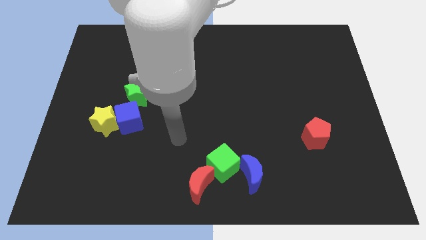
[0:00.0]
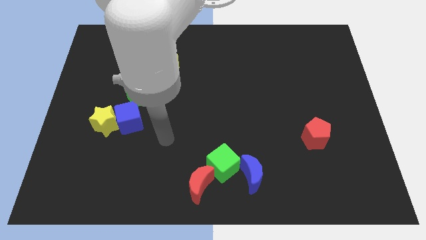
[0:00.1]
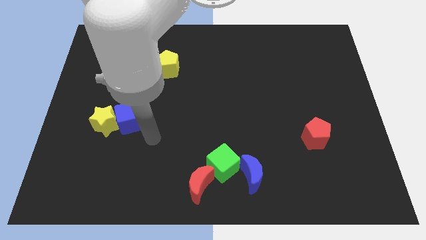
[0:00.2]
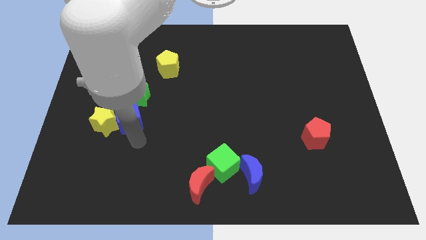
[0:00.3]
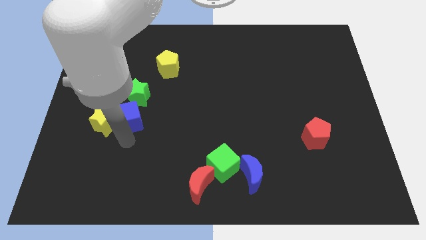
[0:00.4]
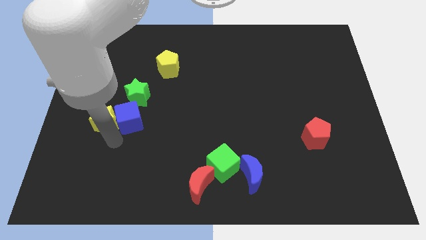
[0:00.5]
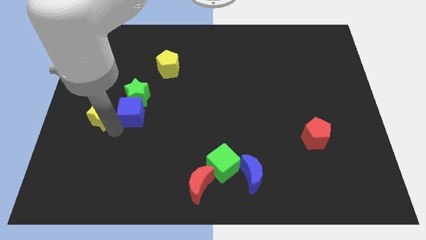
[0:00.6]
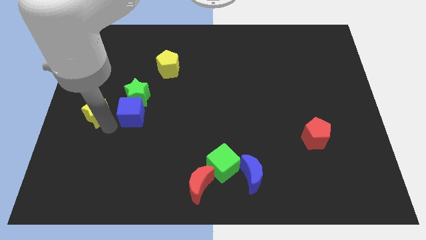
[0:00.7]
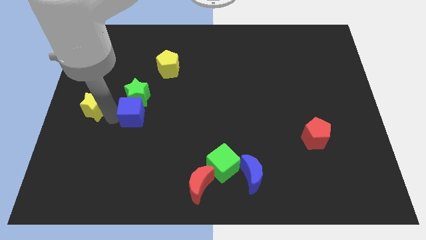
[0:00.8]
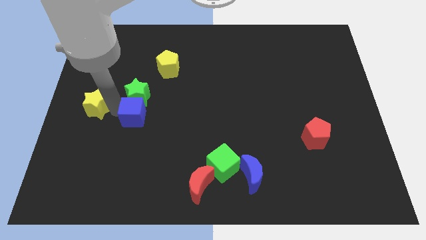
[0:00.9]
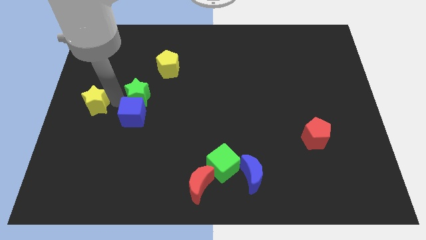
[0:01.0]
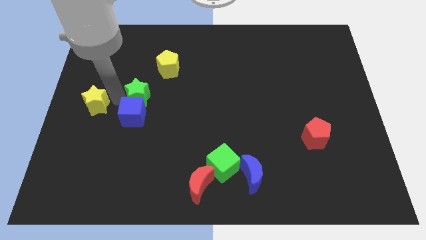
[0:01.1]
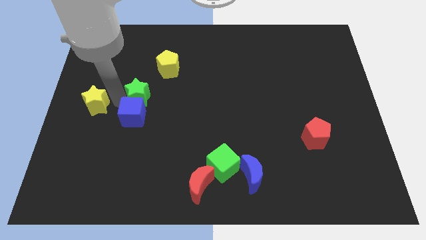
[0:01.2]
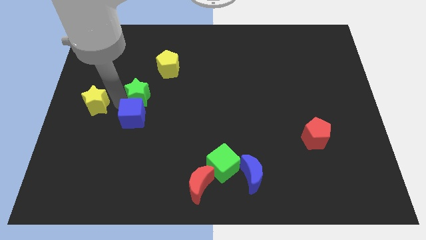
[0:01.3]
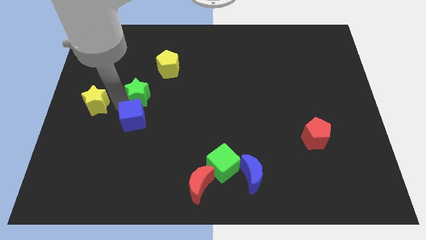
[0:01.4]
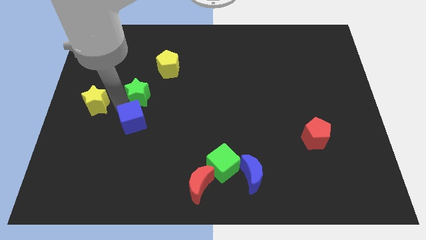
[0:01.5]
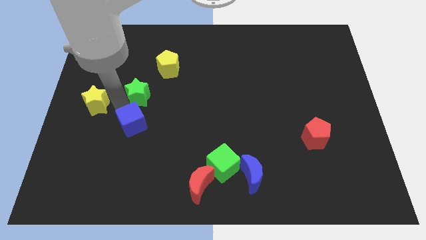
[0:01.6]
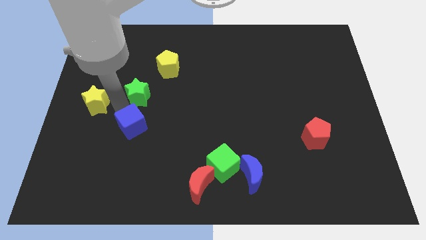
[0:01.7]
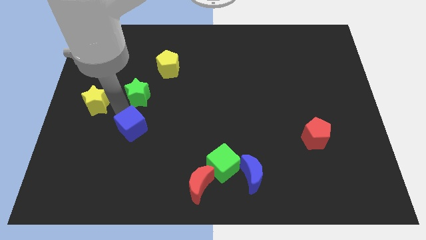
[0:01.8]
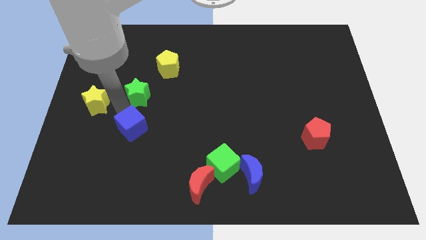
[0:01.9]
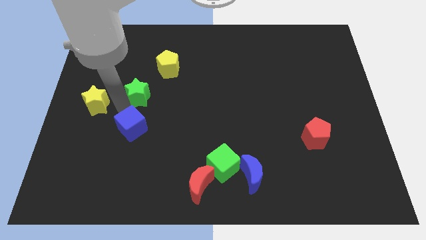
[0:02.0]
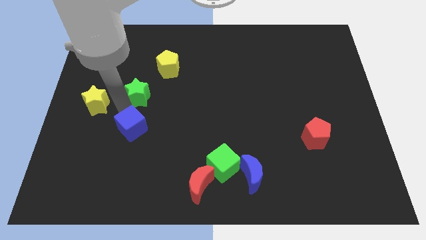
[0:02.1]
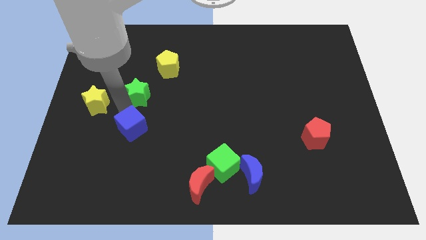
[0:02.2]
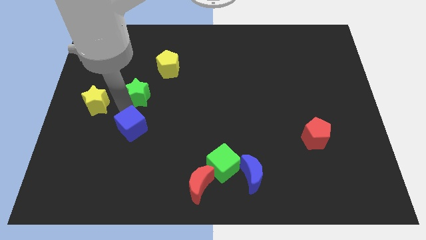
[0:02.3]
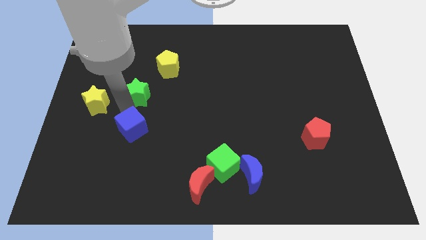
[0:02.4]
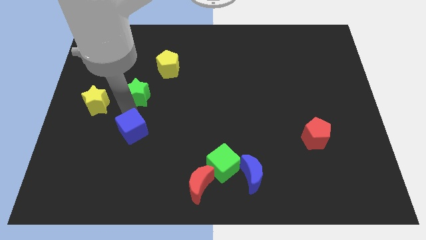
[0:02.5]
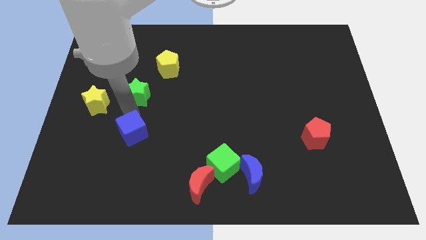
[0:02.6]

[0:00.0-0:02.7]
separate the blue cube from the yellow star and green star

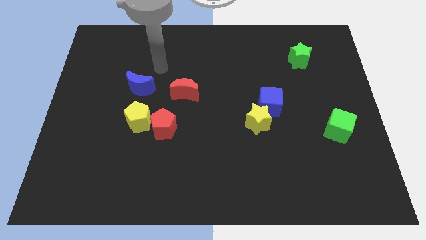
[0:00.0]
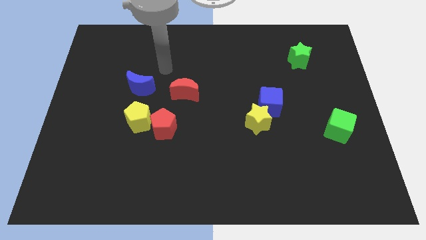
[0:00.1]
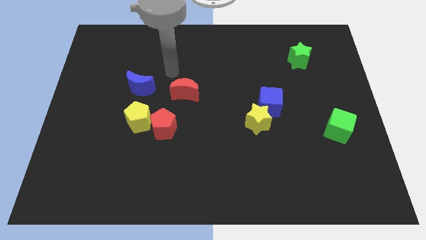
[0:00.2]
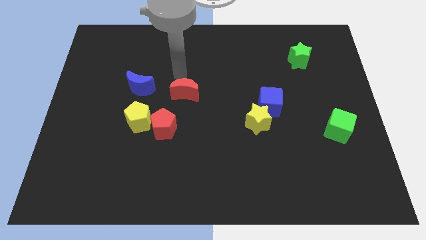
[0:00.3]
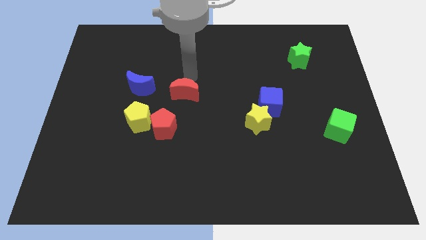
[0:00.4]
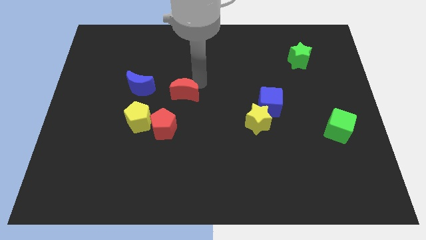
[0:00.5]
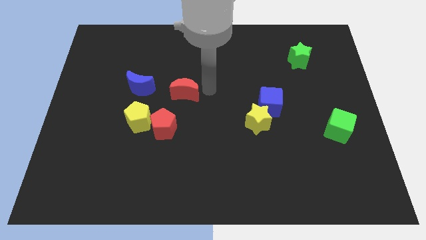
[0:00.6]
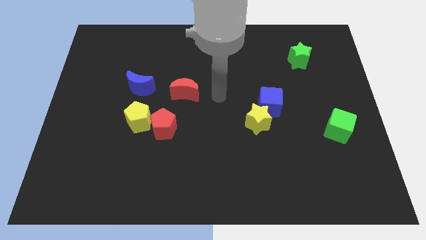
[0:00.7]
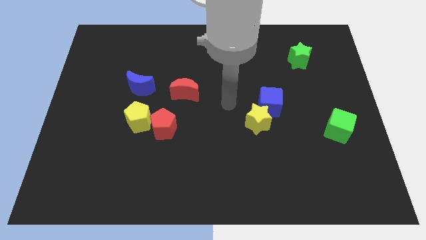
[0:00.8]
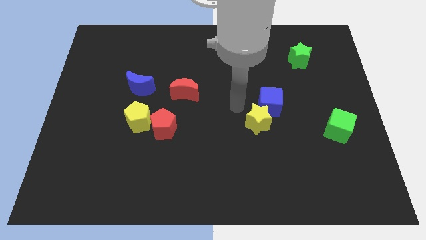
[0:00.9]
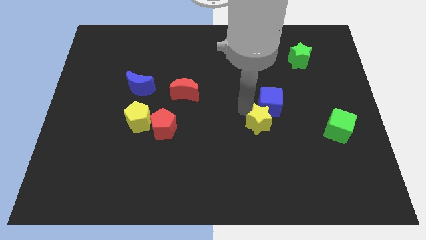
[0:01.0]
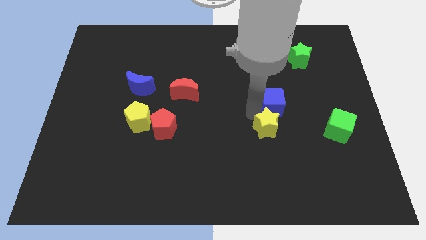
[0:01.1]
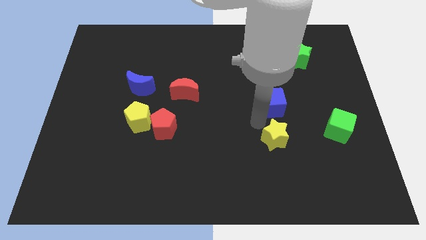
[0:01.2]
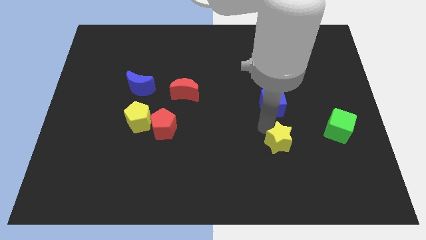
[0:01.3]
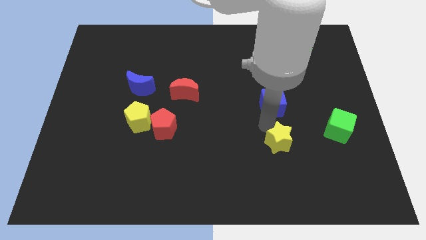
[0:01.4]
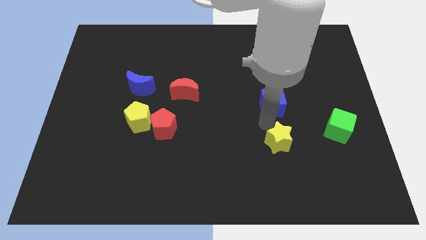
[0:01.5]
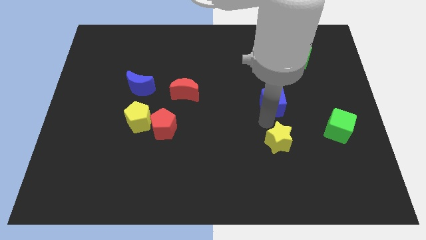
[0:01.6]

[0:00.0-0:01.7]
separate the blue cube from the yellow star

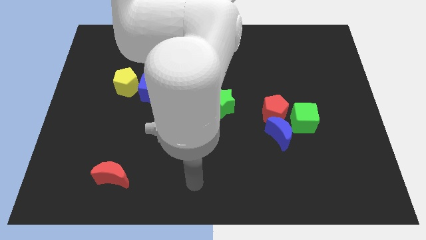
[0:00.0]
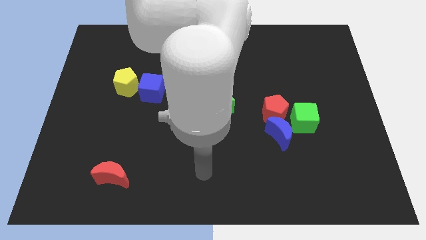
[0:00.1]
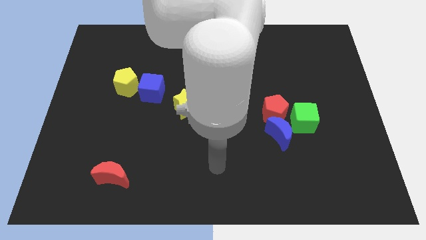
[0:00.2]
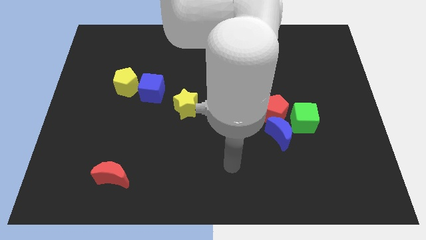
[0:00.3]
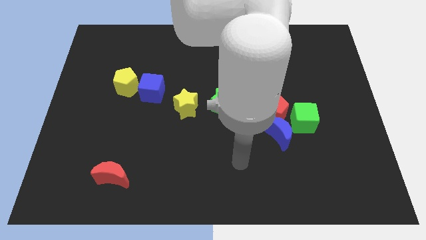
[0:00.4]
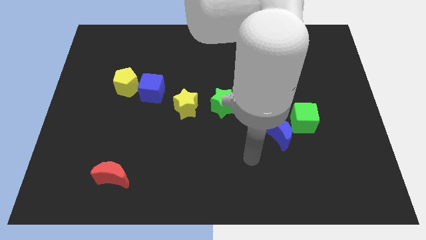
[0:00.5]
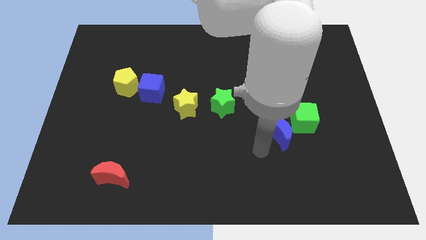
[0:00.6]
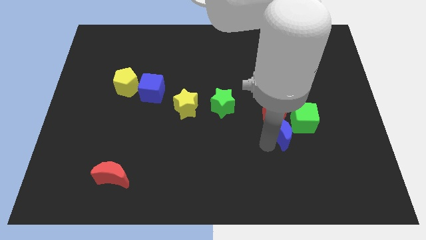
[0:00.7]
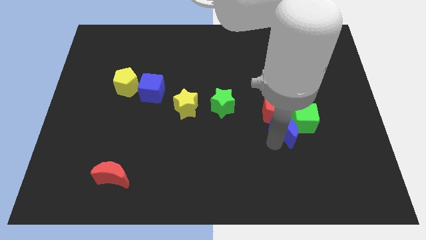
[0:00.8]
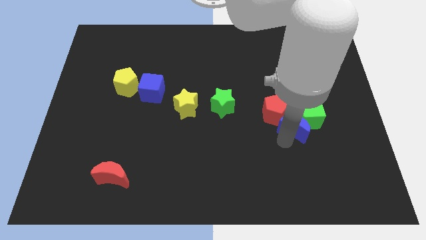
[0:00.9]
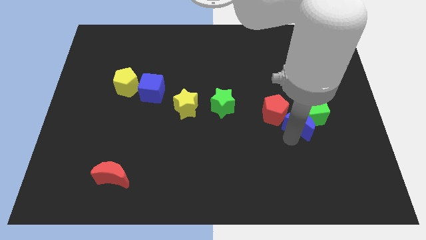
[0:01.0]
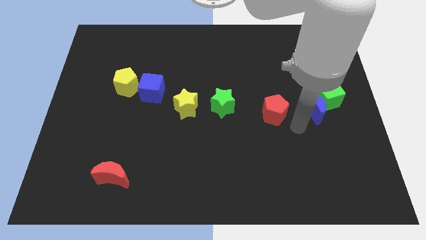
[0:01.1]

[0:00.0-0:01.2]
move the red pentagon away from the blue moon and green cube

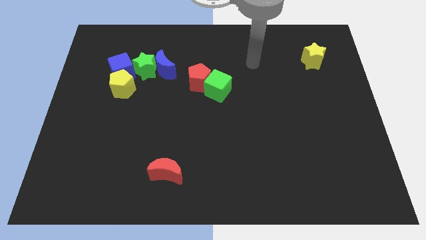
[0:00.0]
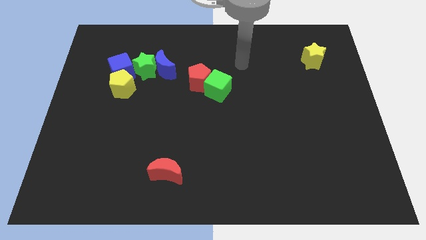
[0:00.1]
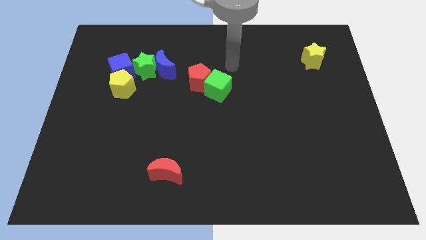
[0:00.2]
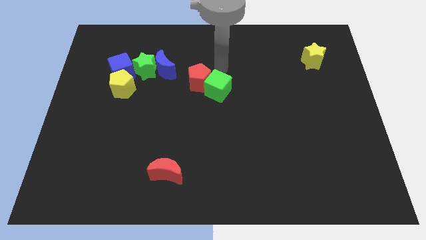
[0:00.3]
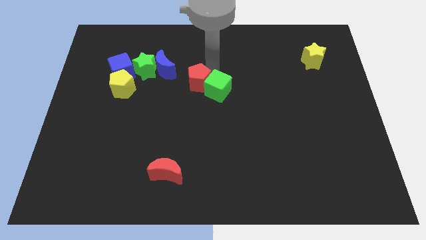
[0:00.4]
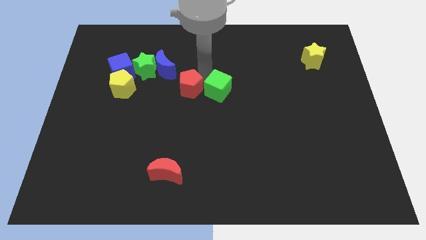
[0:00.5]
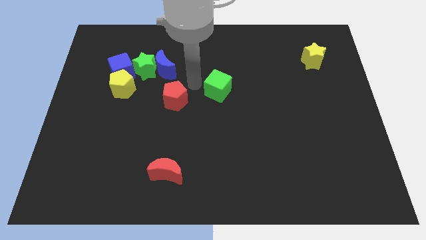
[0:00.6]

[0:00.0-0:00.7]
separate the green cube from the red pentagon

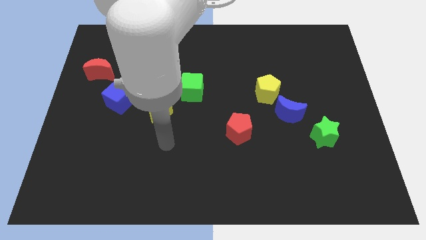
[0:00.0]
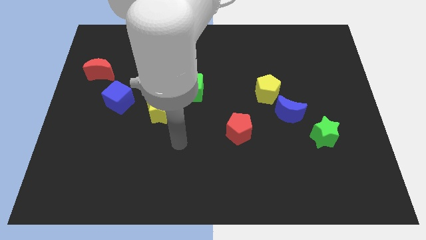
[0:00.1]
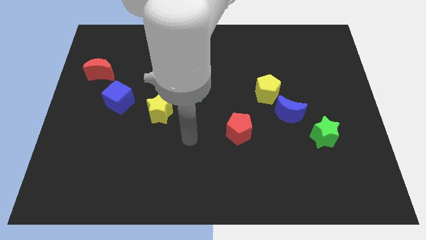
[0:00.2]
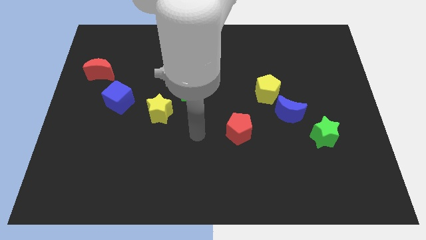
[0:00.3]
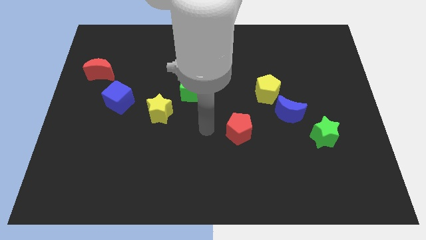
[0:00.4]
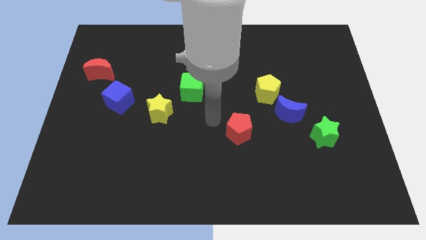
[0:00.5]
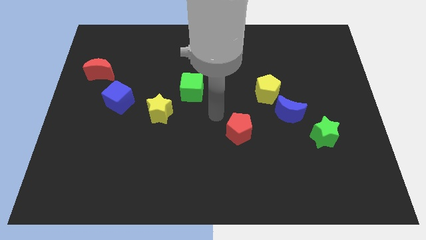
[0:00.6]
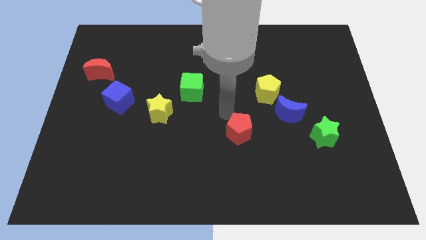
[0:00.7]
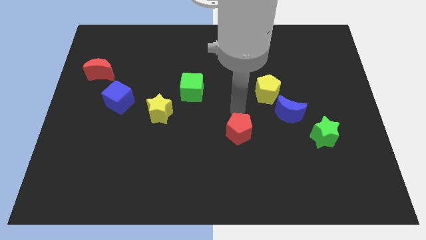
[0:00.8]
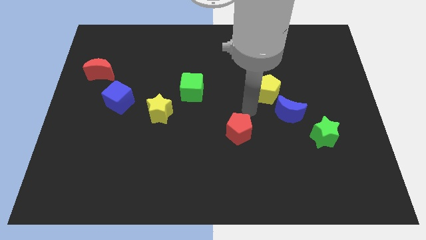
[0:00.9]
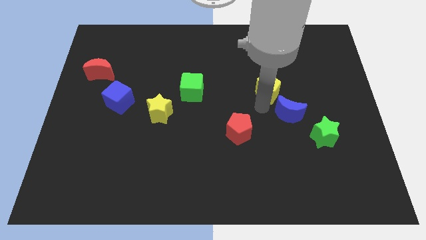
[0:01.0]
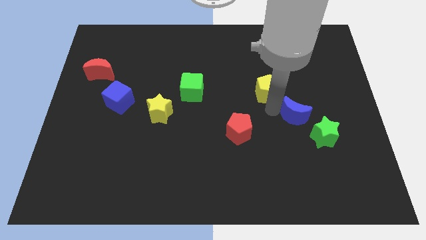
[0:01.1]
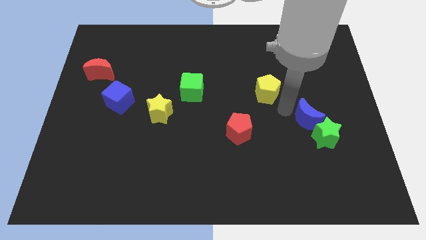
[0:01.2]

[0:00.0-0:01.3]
pull the yellow pentagon apart from the blue moon

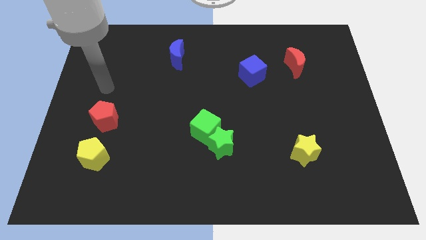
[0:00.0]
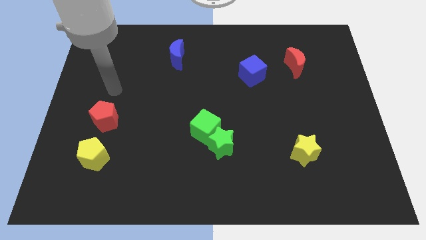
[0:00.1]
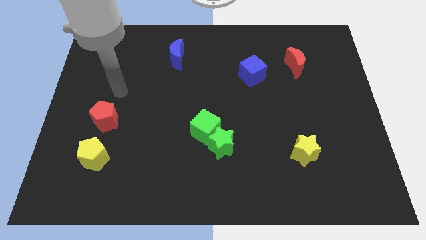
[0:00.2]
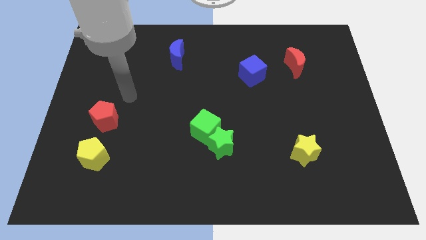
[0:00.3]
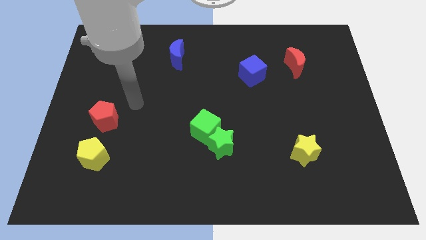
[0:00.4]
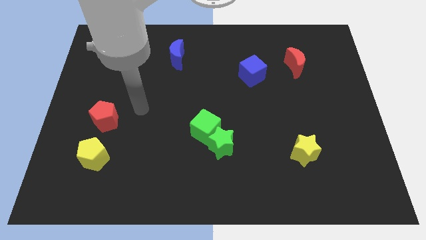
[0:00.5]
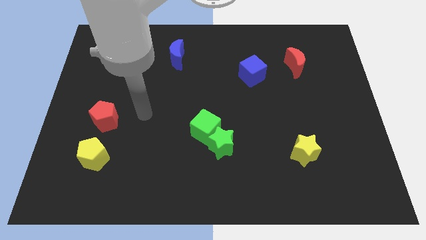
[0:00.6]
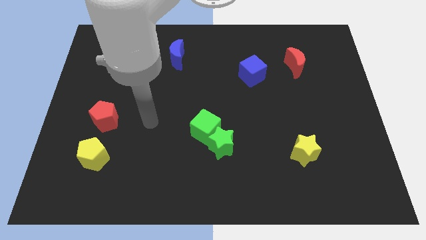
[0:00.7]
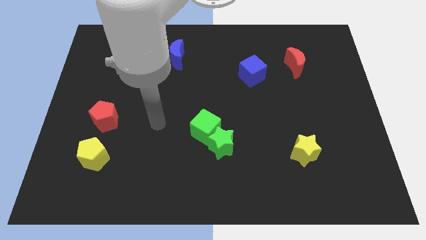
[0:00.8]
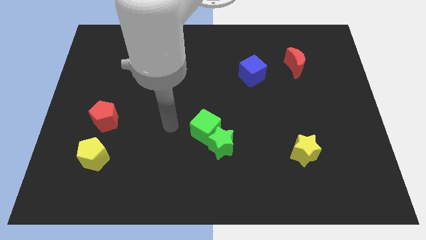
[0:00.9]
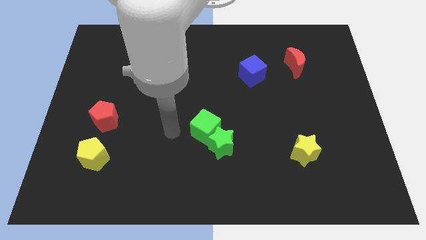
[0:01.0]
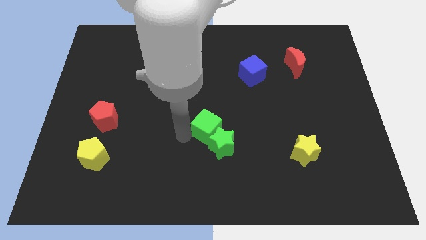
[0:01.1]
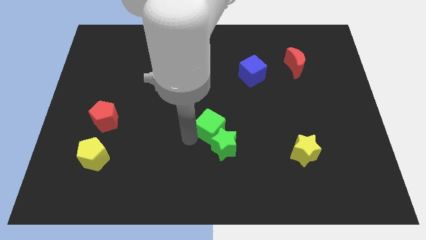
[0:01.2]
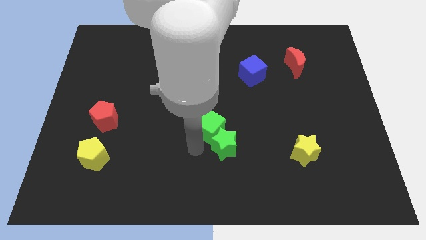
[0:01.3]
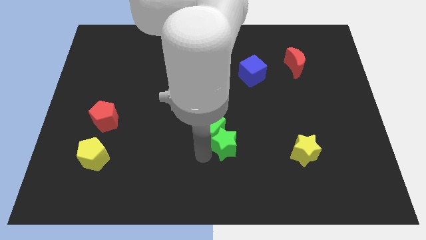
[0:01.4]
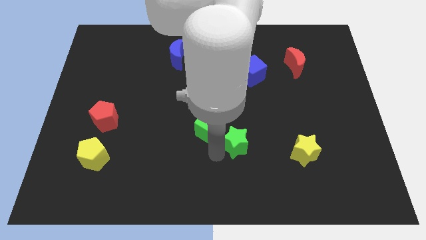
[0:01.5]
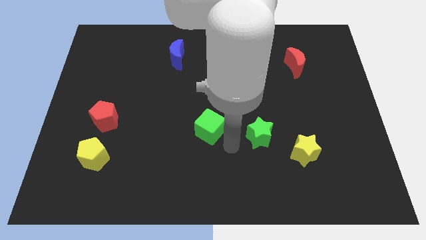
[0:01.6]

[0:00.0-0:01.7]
pull the green cube apart from the green star
